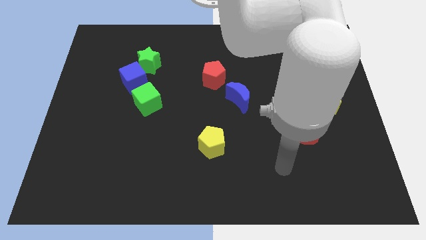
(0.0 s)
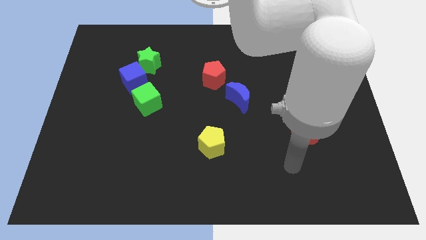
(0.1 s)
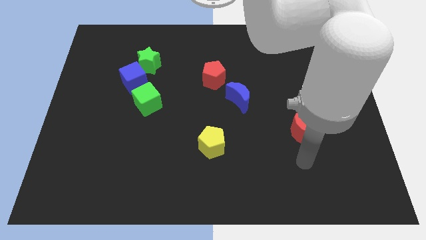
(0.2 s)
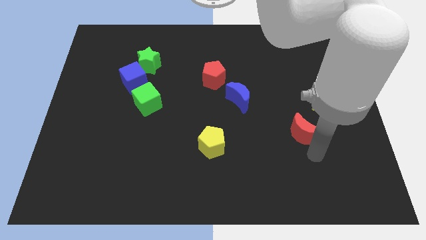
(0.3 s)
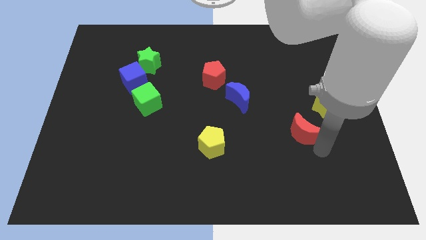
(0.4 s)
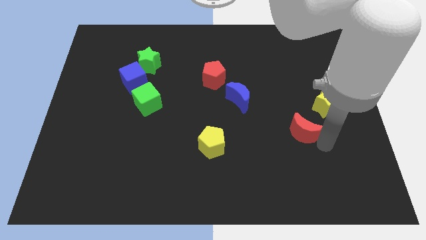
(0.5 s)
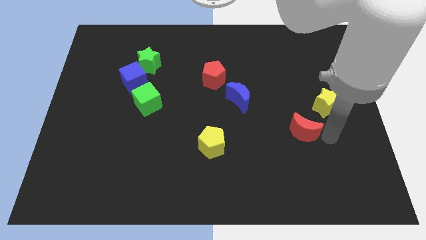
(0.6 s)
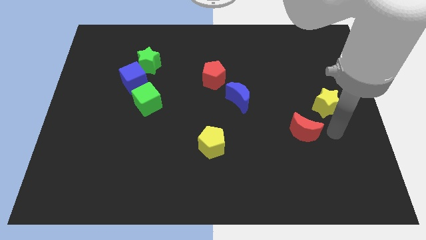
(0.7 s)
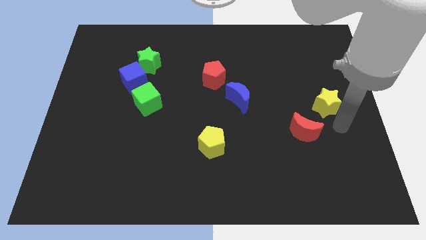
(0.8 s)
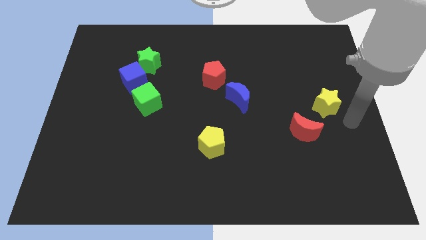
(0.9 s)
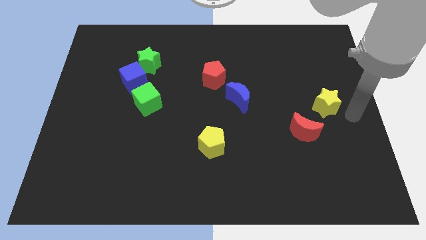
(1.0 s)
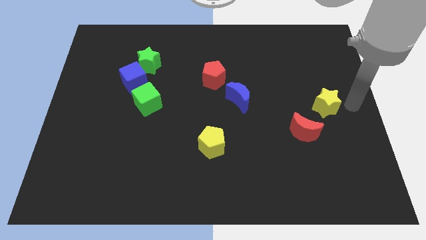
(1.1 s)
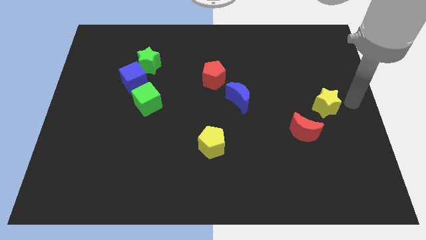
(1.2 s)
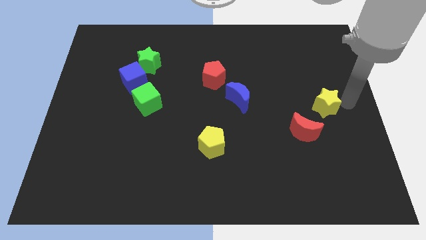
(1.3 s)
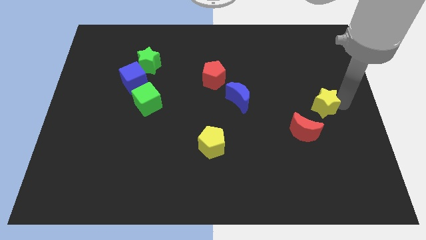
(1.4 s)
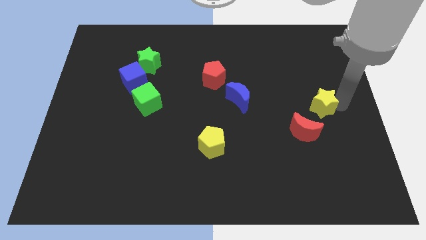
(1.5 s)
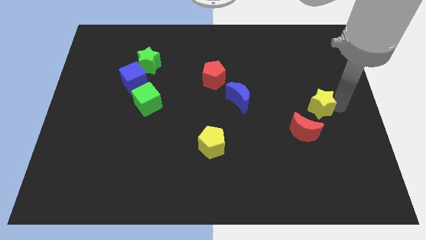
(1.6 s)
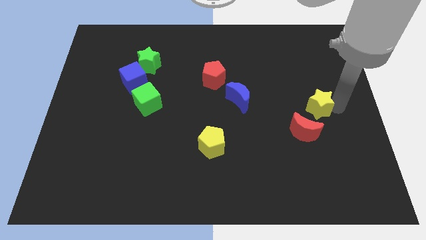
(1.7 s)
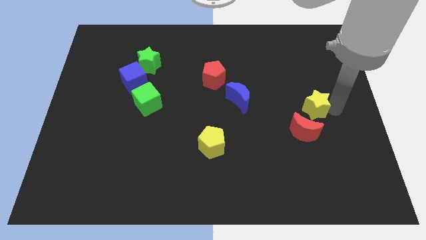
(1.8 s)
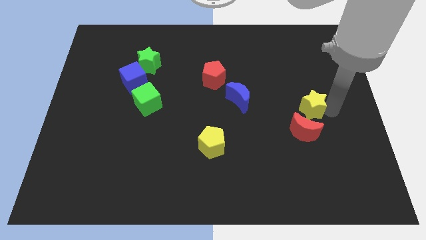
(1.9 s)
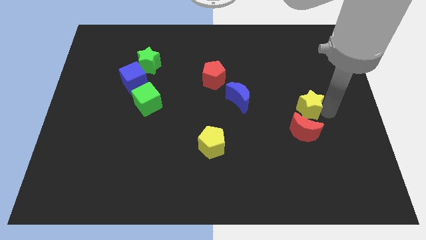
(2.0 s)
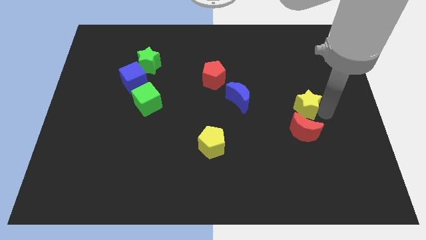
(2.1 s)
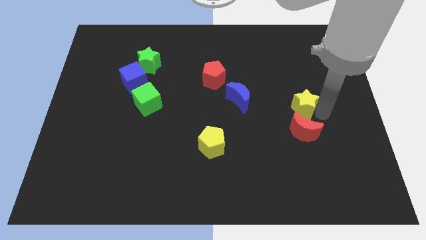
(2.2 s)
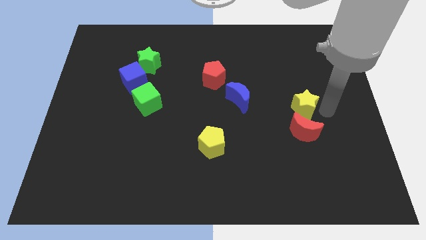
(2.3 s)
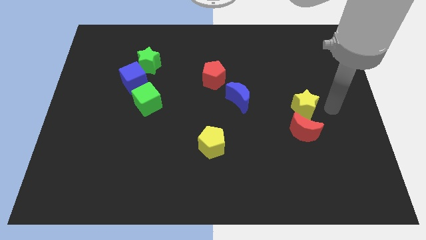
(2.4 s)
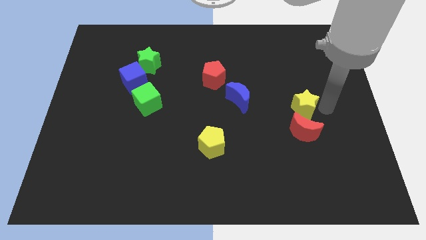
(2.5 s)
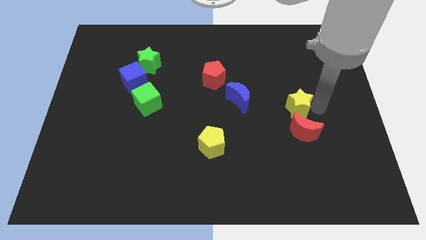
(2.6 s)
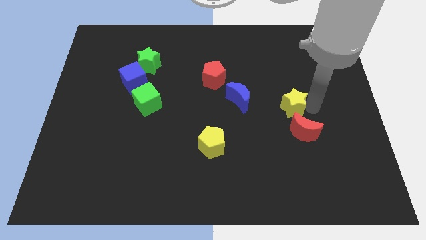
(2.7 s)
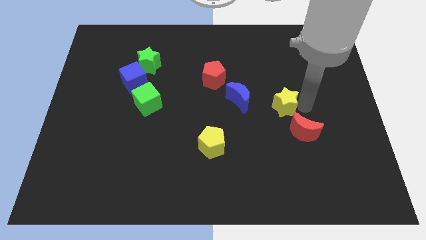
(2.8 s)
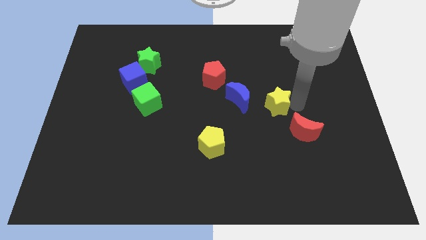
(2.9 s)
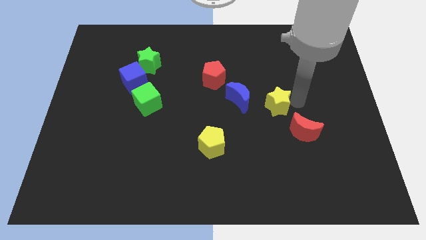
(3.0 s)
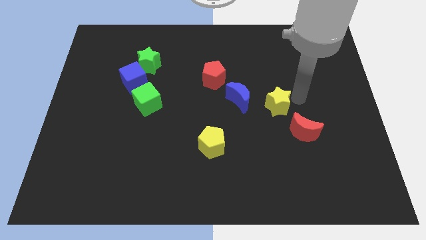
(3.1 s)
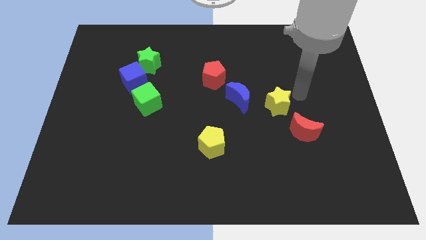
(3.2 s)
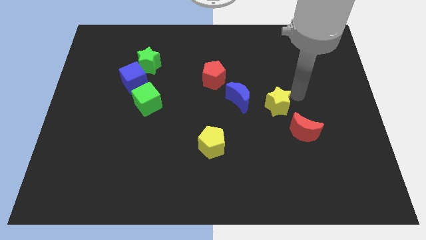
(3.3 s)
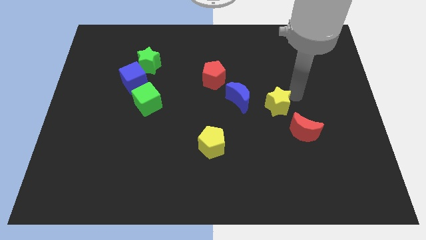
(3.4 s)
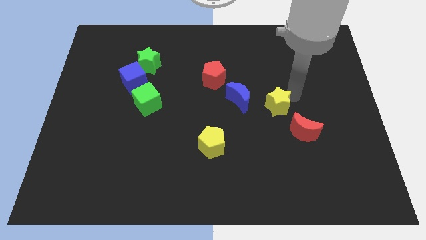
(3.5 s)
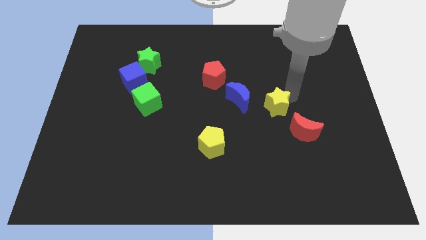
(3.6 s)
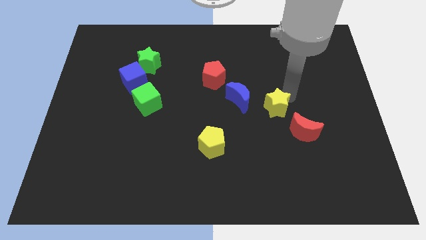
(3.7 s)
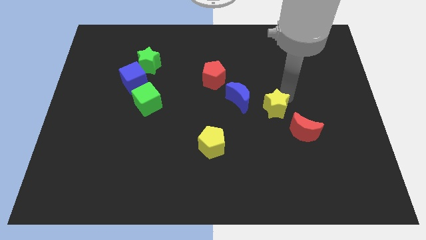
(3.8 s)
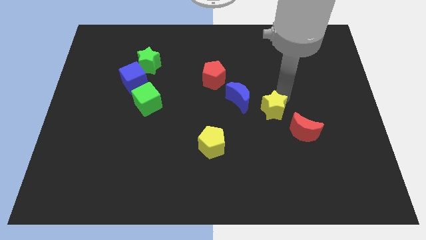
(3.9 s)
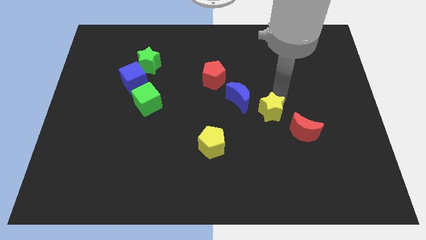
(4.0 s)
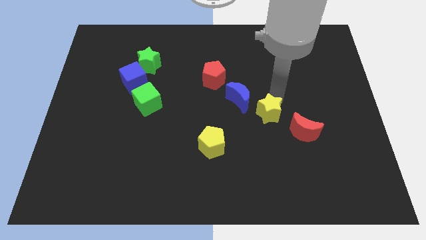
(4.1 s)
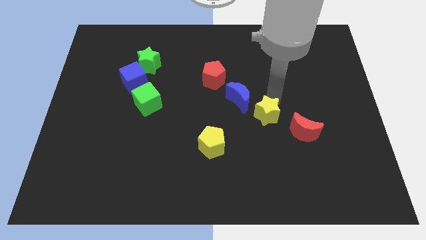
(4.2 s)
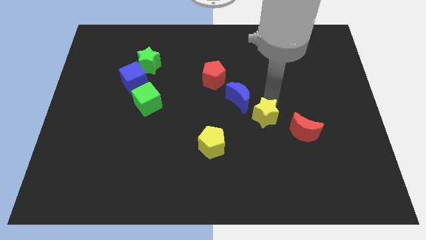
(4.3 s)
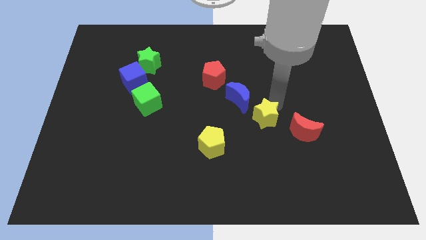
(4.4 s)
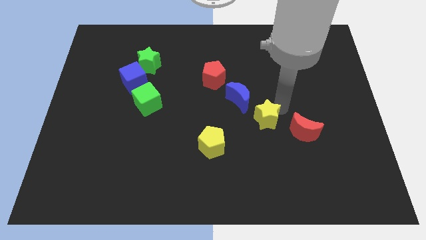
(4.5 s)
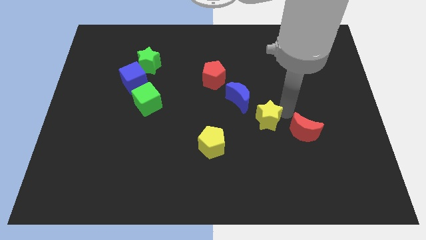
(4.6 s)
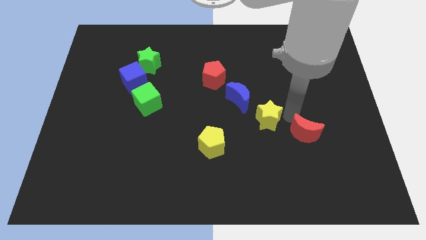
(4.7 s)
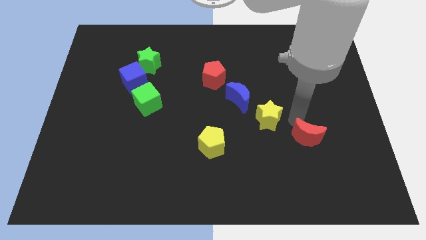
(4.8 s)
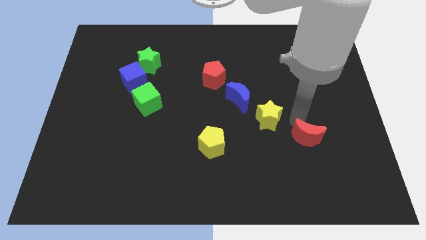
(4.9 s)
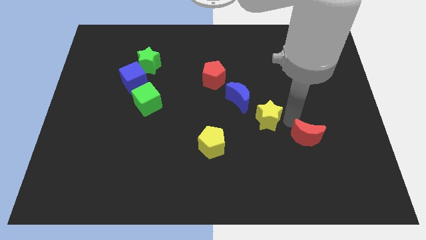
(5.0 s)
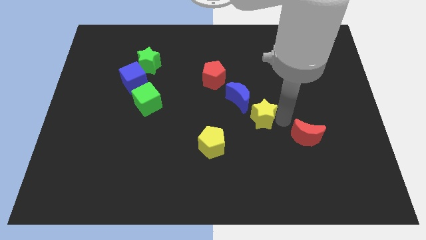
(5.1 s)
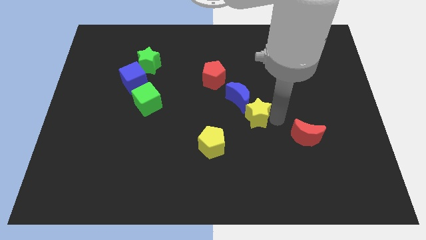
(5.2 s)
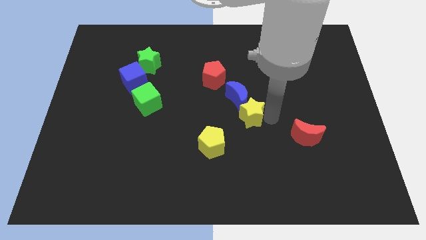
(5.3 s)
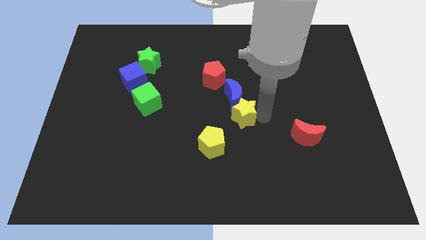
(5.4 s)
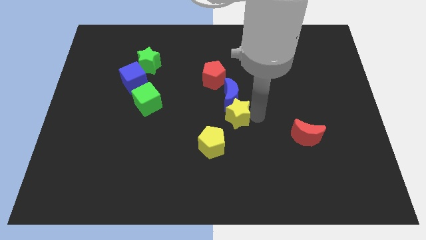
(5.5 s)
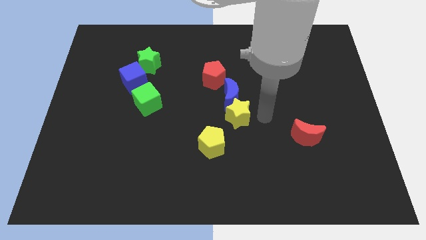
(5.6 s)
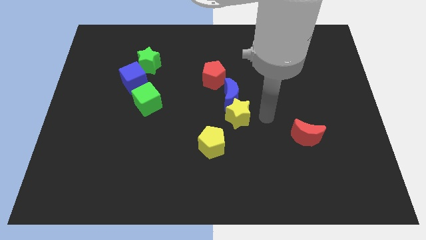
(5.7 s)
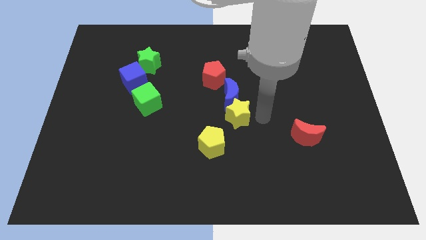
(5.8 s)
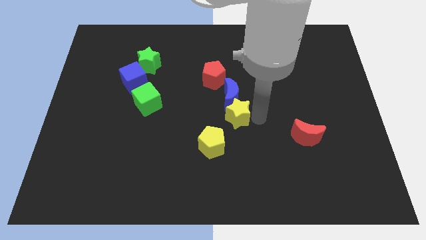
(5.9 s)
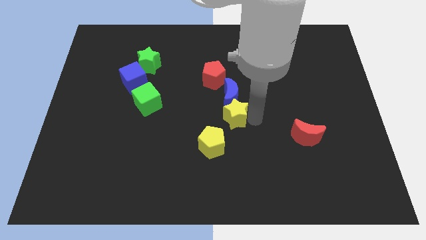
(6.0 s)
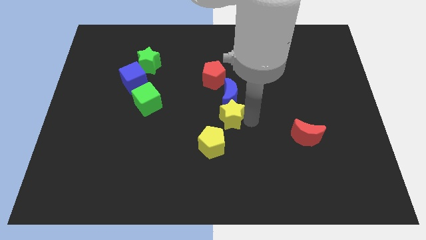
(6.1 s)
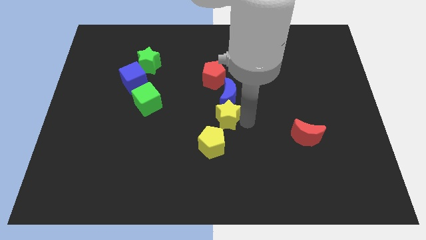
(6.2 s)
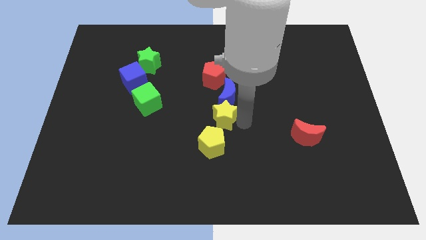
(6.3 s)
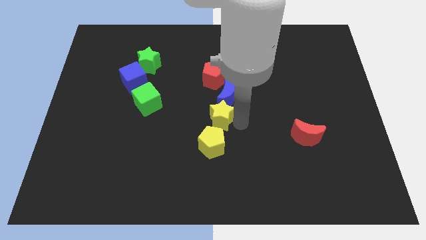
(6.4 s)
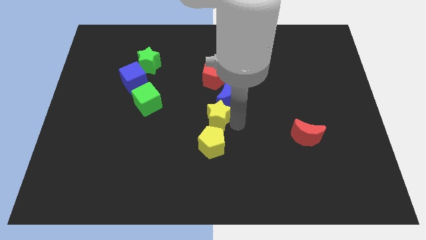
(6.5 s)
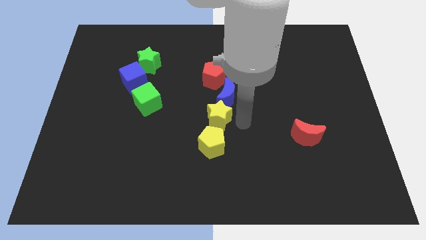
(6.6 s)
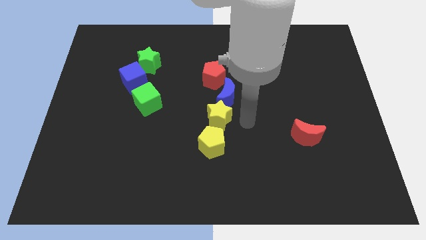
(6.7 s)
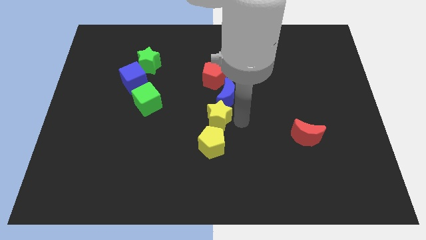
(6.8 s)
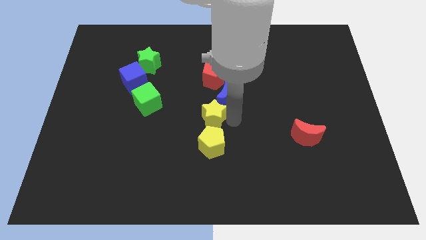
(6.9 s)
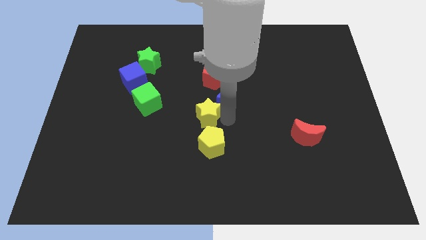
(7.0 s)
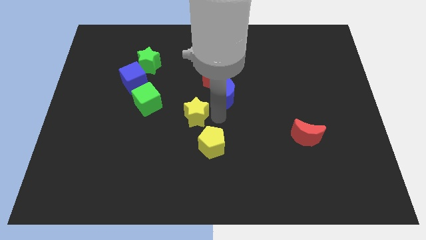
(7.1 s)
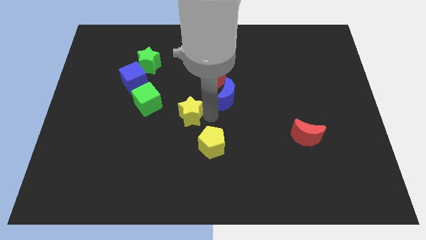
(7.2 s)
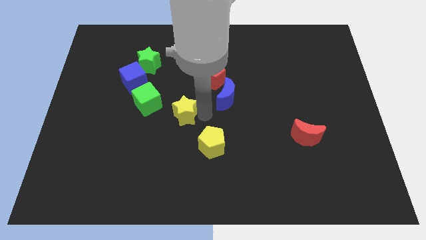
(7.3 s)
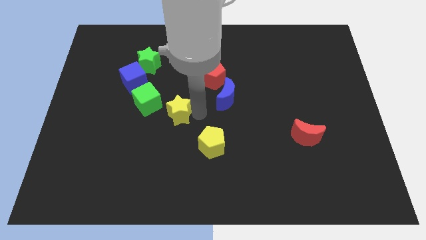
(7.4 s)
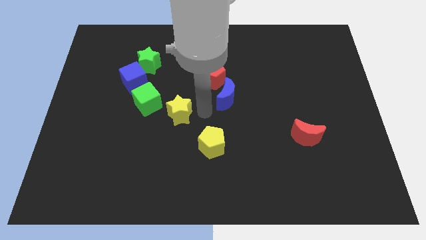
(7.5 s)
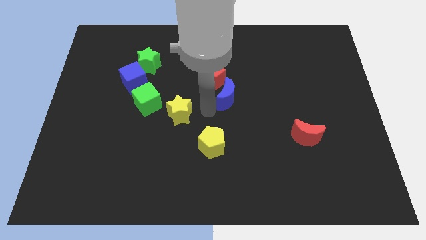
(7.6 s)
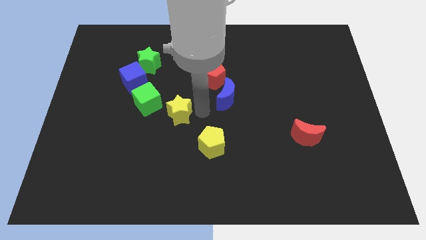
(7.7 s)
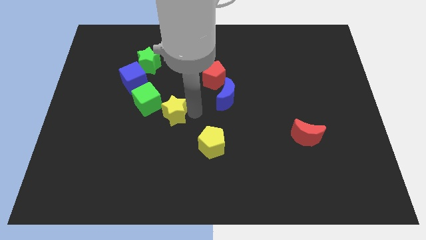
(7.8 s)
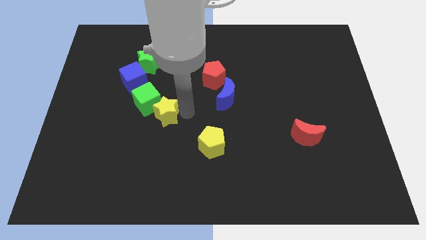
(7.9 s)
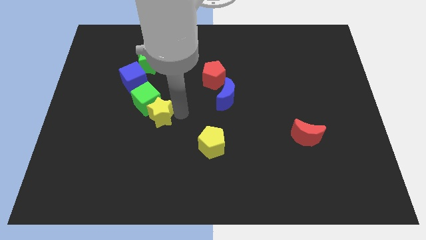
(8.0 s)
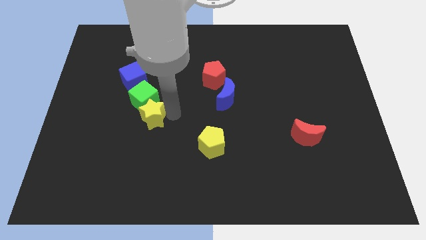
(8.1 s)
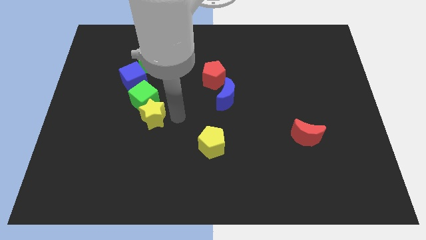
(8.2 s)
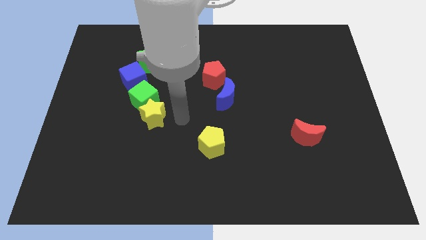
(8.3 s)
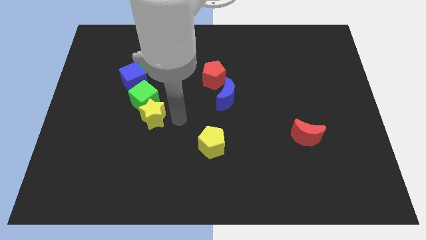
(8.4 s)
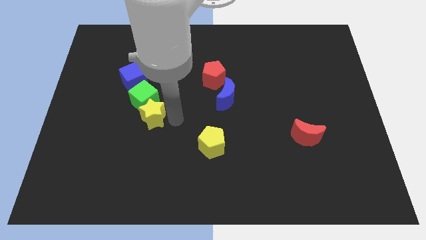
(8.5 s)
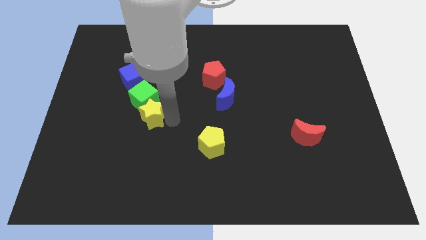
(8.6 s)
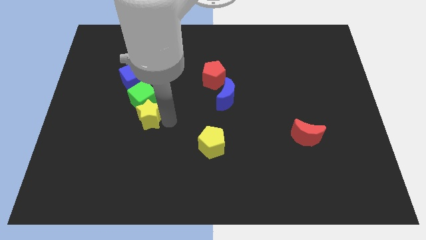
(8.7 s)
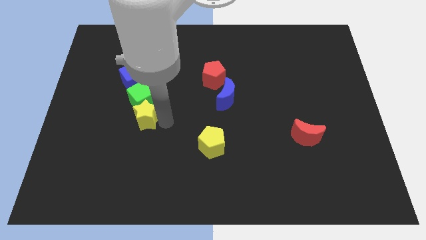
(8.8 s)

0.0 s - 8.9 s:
move the yellow star to the bottom of the blue cube
